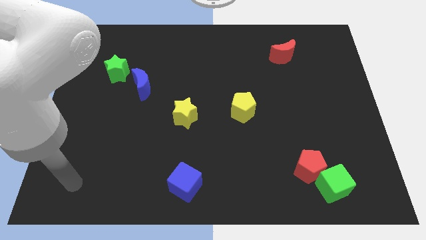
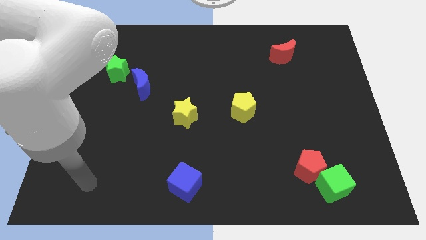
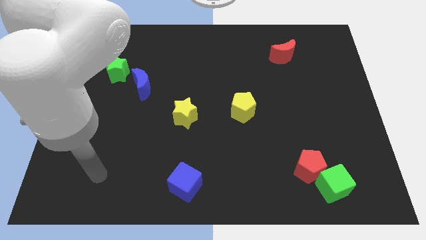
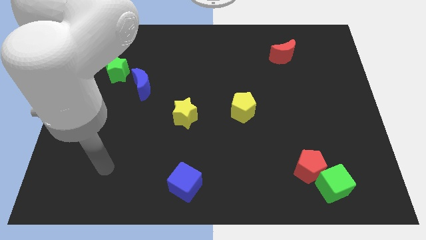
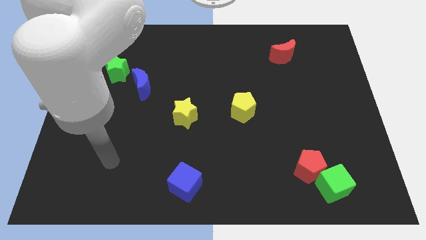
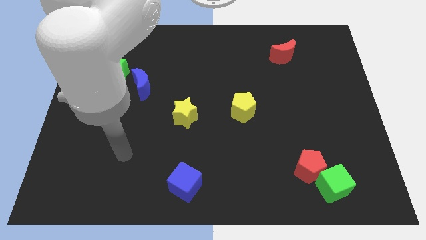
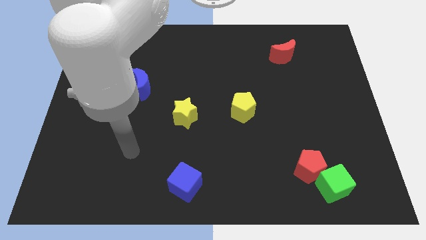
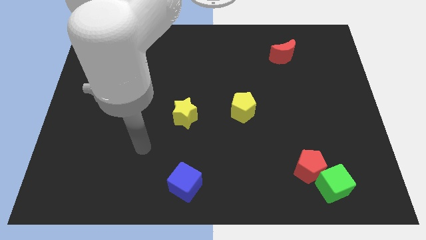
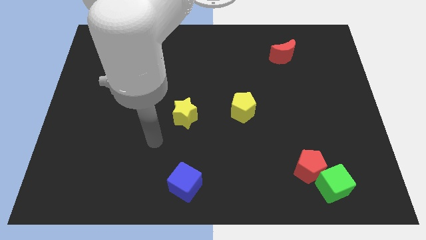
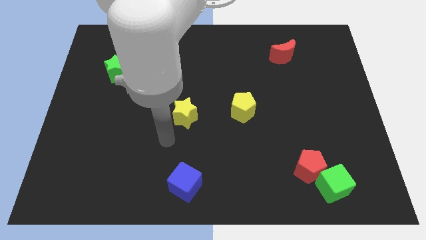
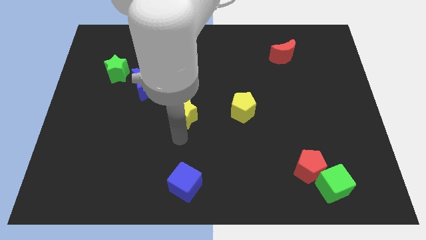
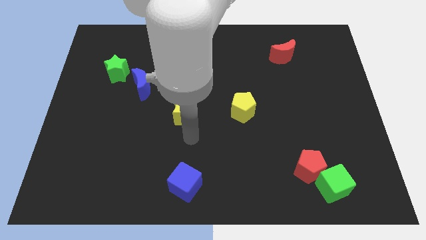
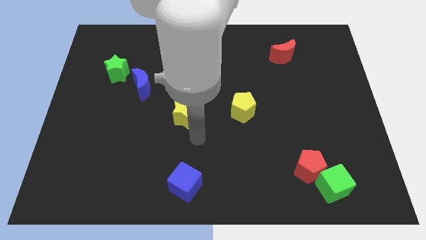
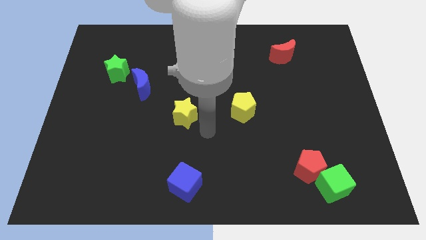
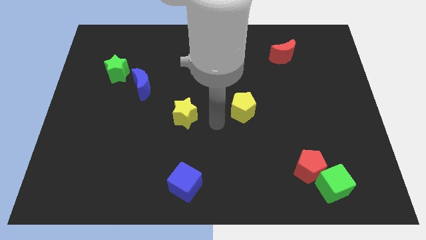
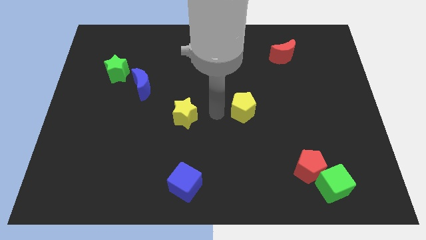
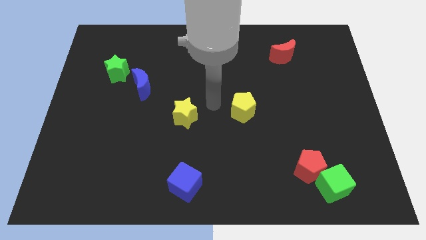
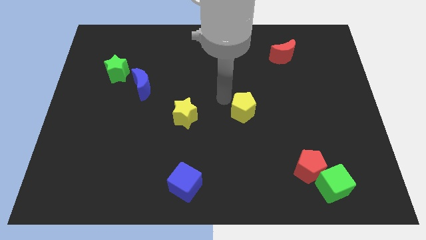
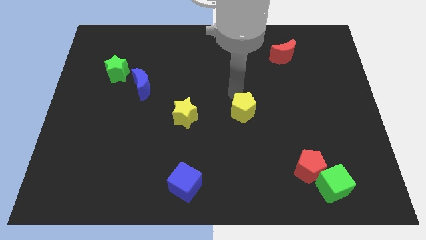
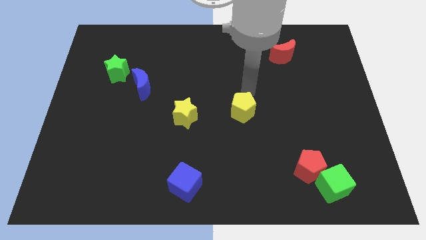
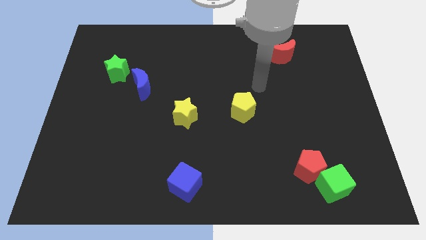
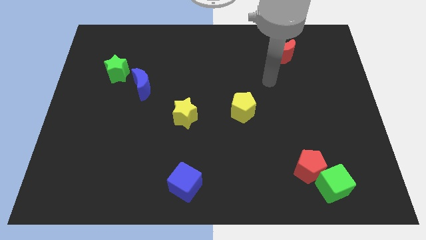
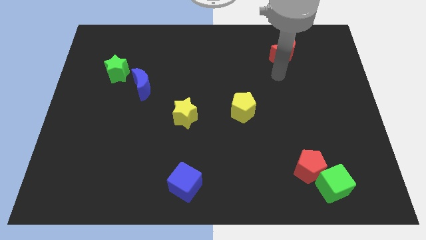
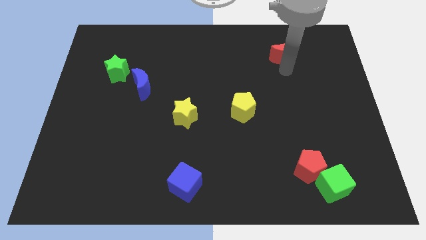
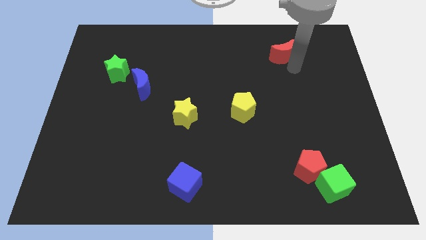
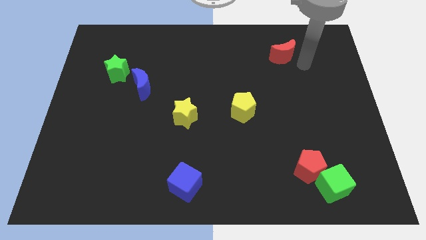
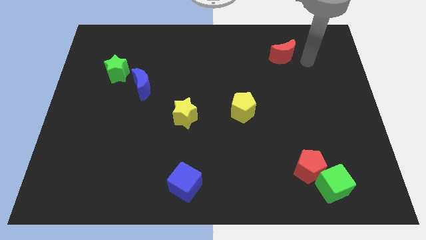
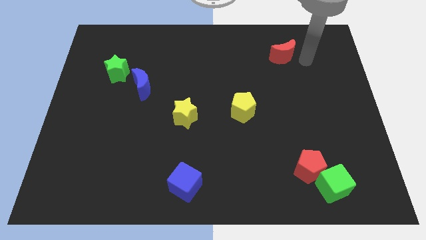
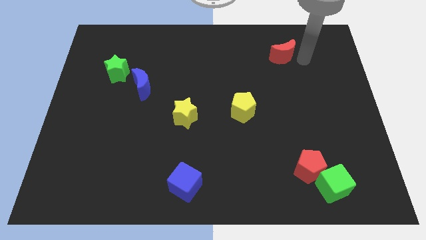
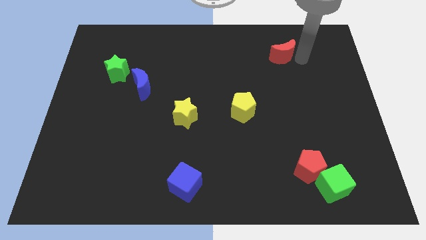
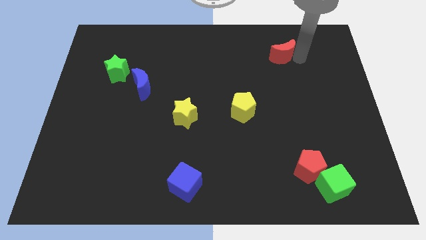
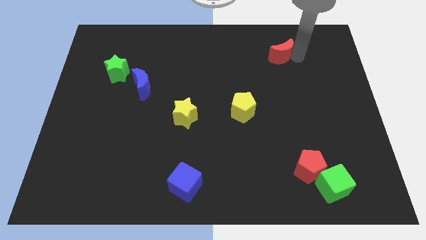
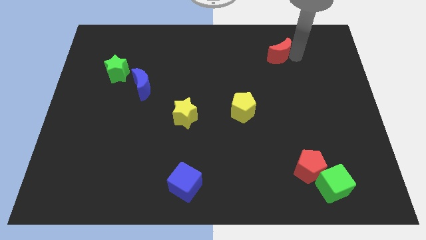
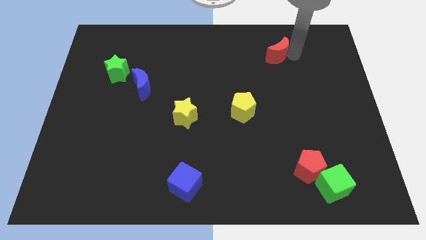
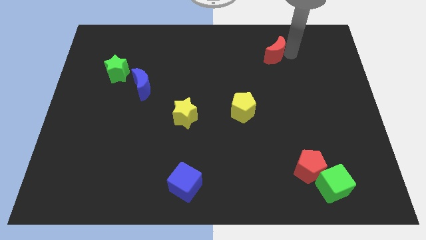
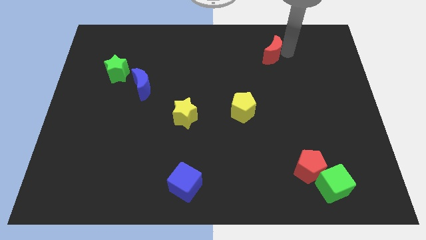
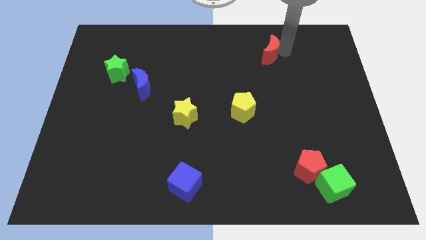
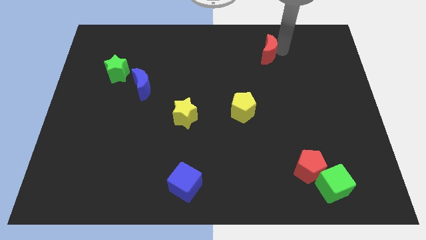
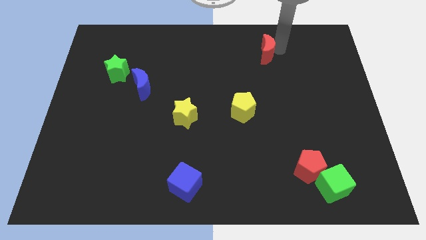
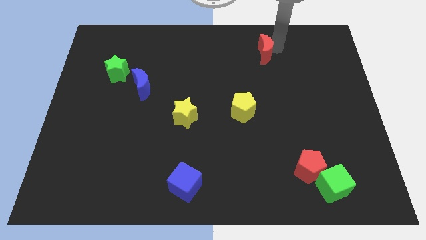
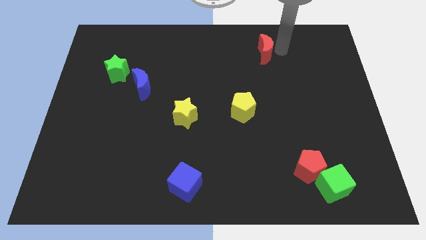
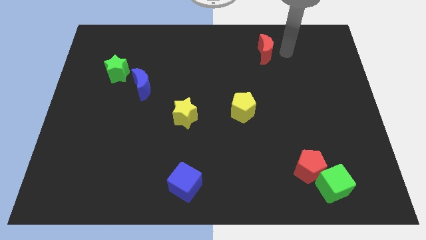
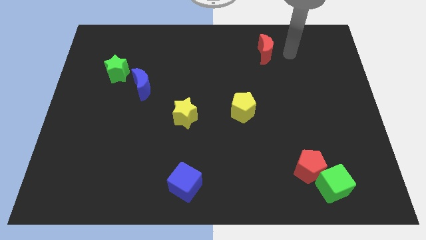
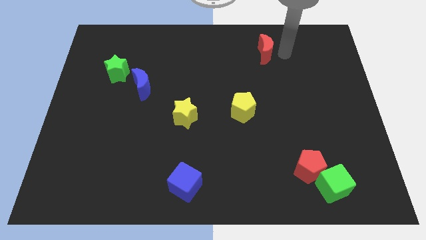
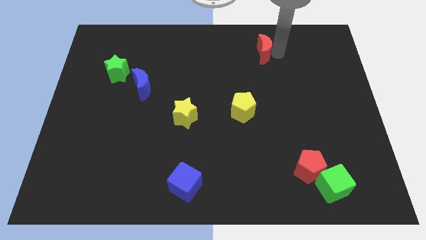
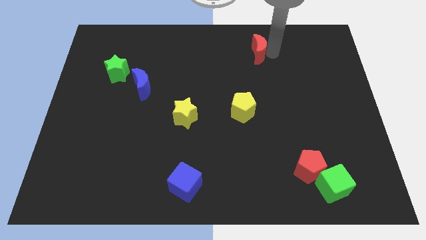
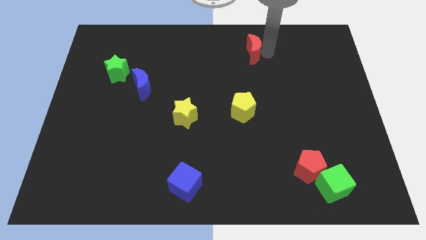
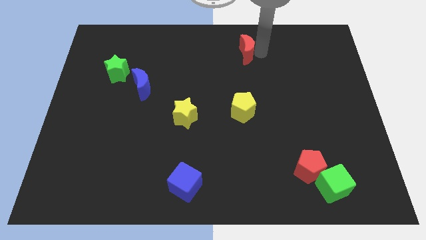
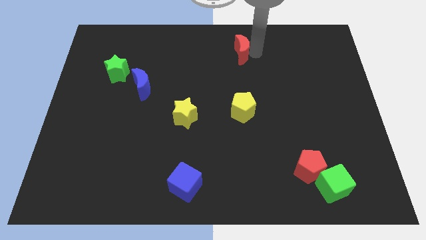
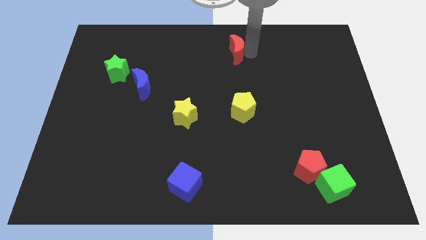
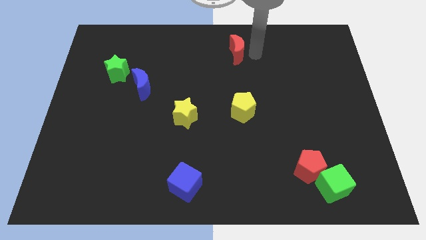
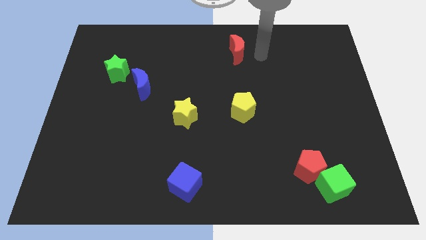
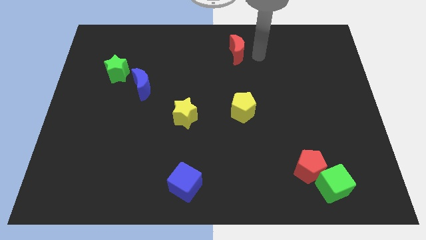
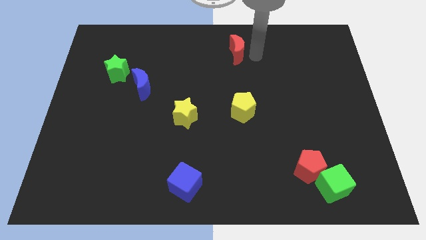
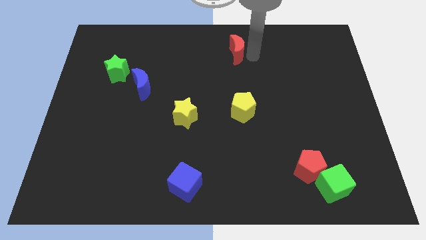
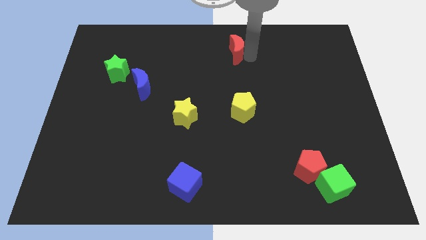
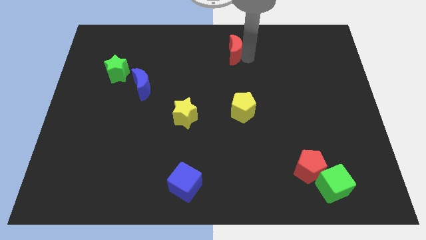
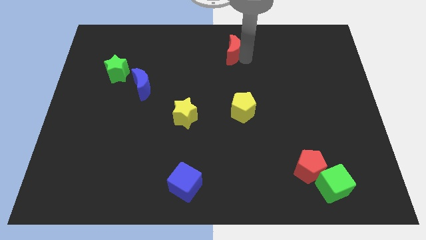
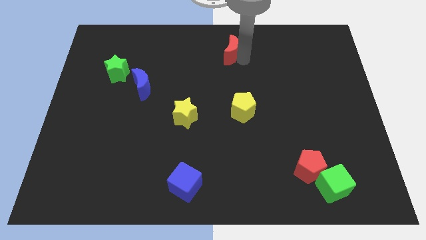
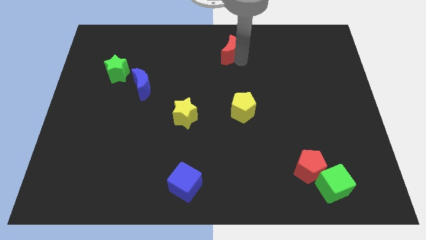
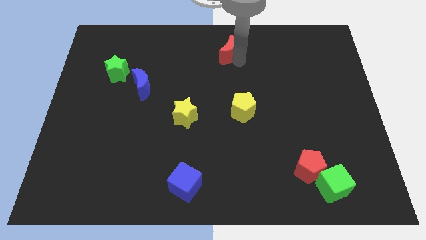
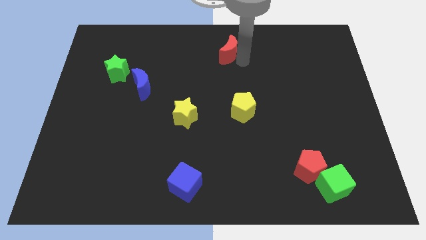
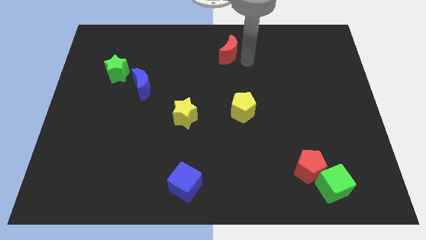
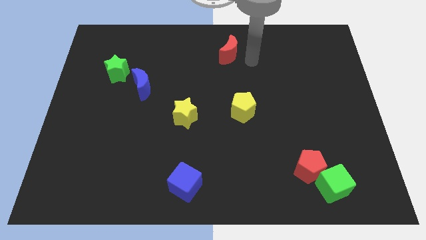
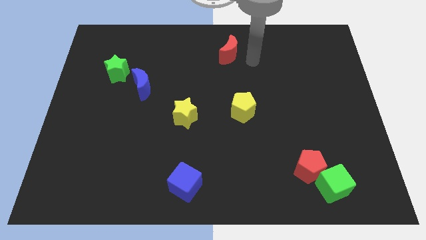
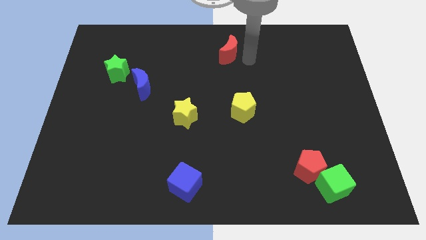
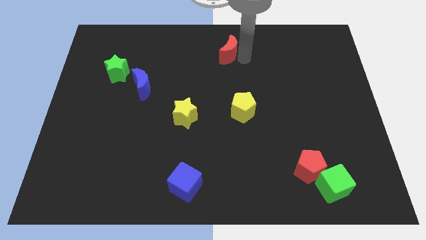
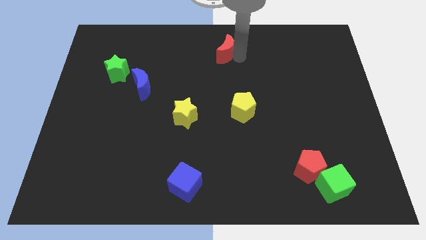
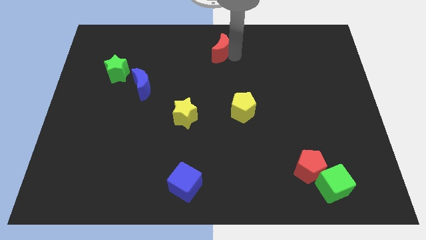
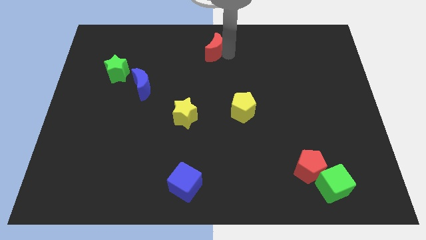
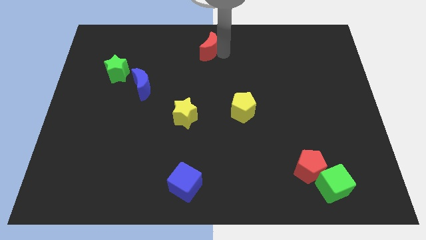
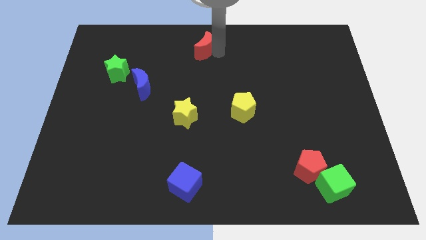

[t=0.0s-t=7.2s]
slide the red moon to the left

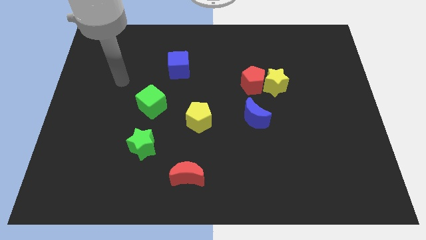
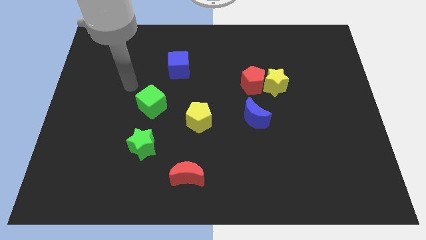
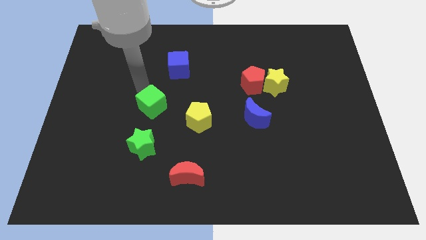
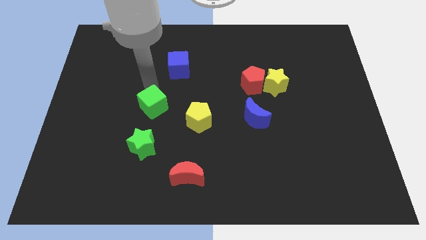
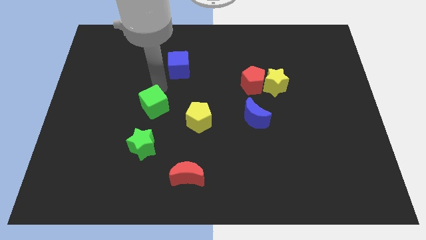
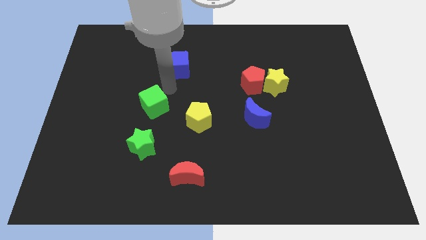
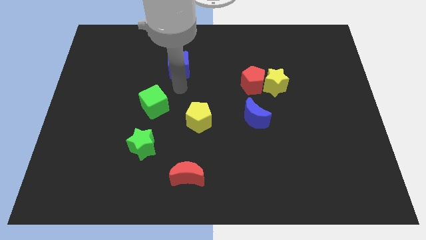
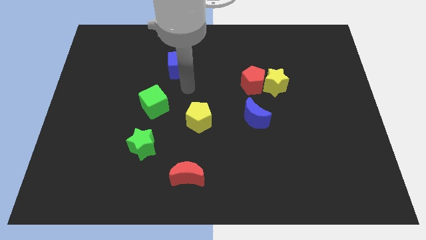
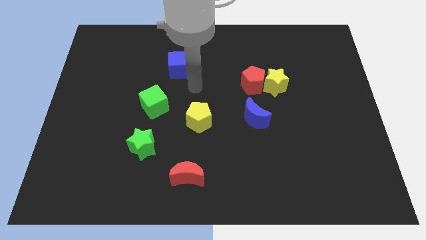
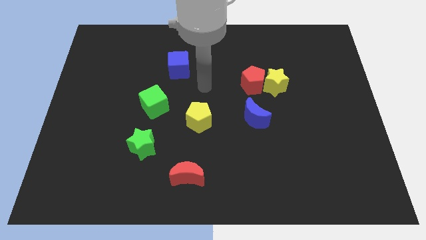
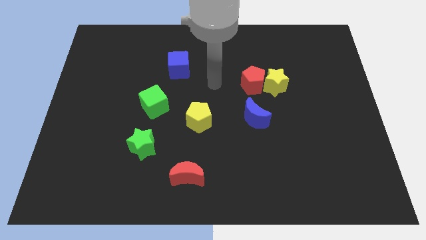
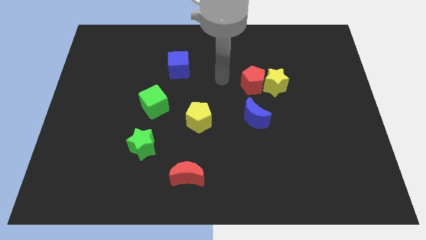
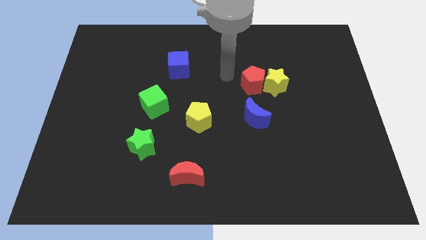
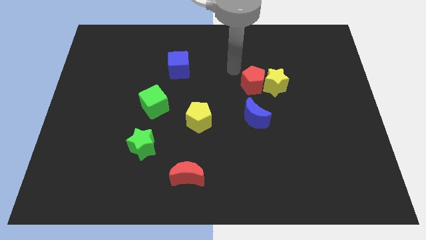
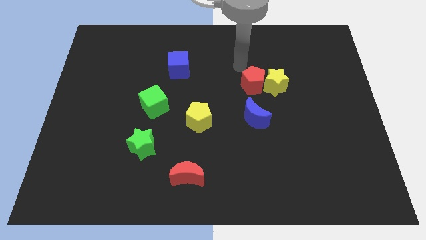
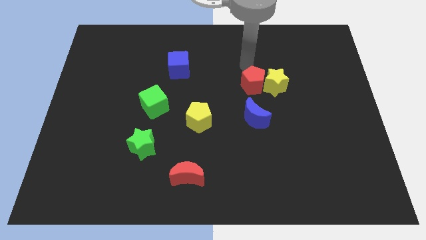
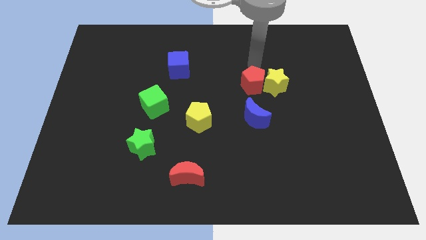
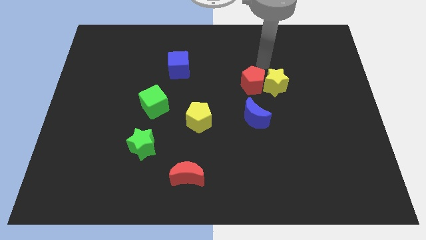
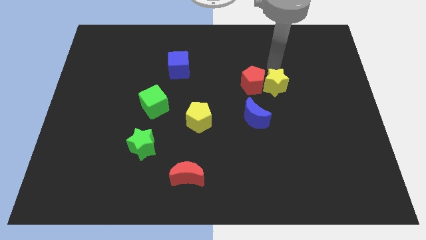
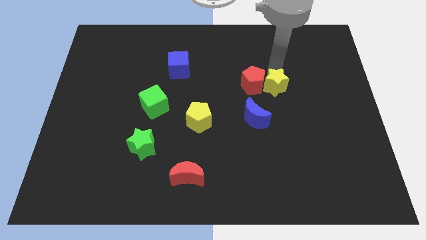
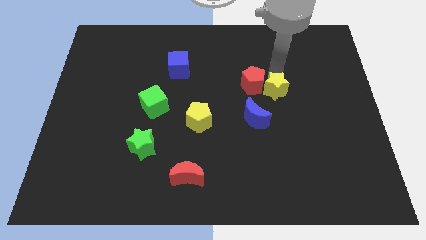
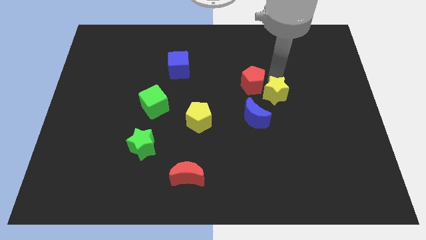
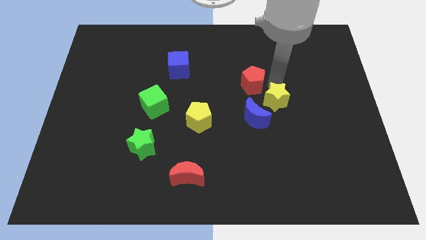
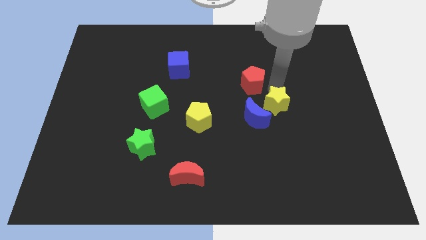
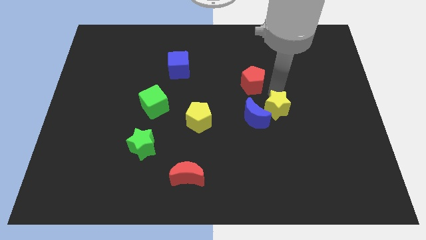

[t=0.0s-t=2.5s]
move the yellow star downwards slightly
